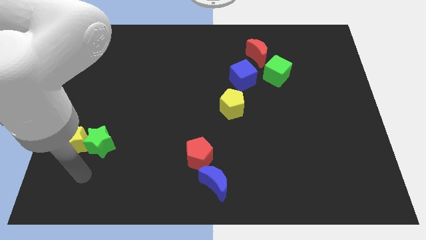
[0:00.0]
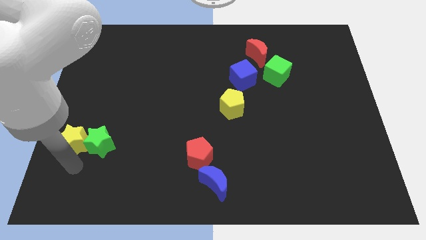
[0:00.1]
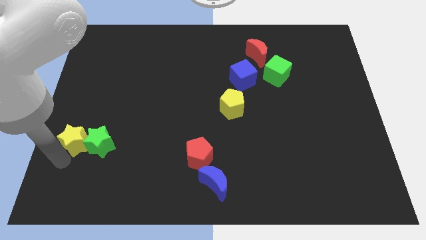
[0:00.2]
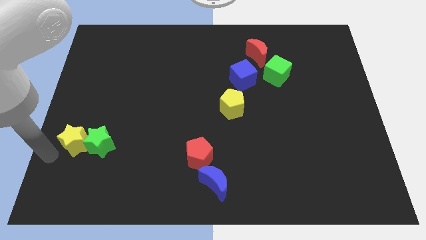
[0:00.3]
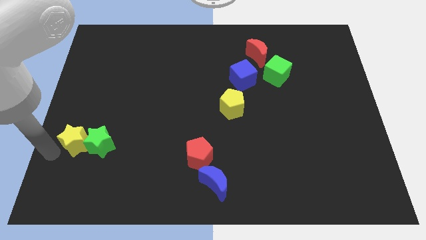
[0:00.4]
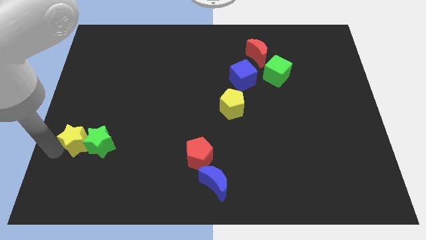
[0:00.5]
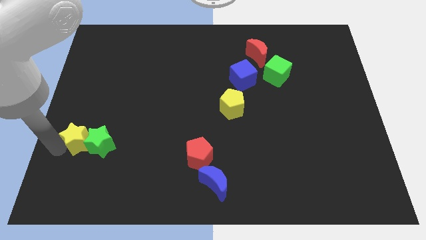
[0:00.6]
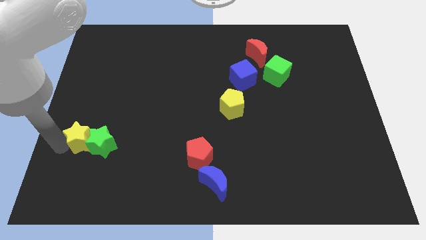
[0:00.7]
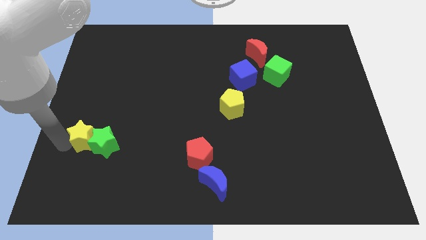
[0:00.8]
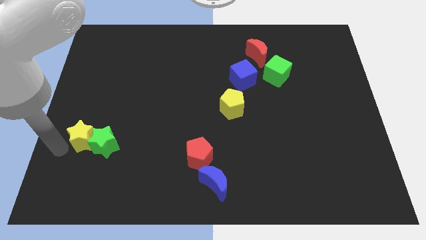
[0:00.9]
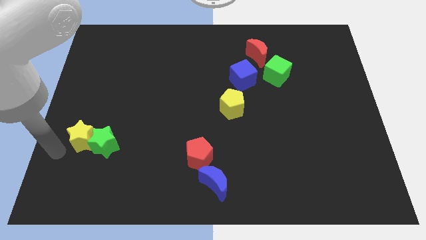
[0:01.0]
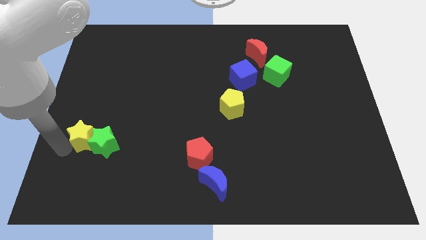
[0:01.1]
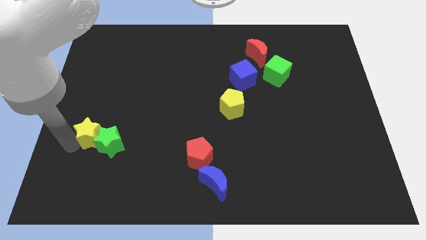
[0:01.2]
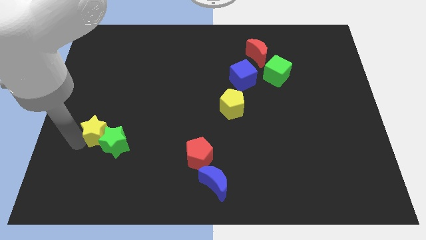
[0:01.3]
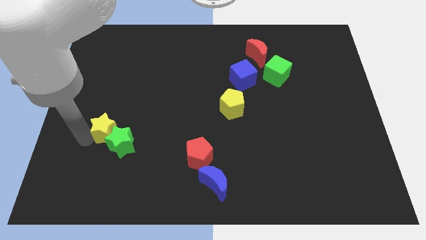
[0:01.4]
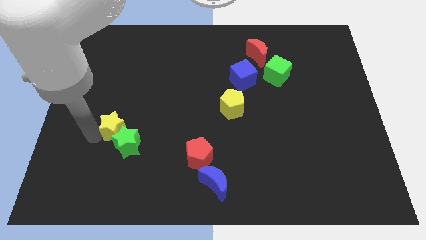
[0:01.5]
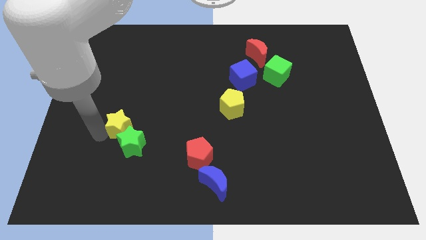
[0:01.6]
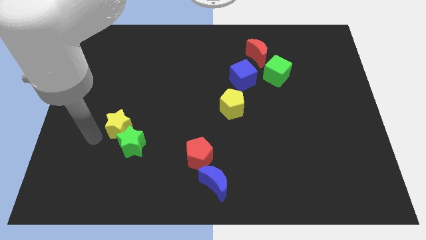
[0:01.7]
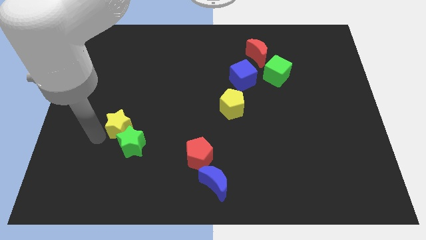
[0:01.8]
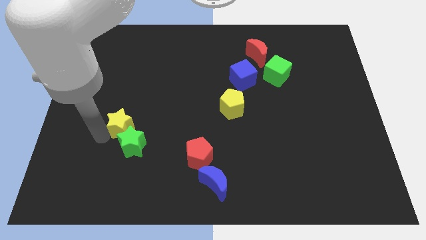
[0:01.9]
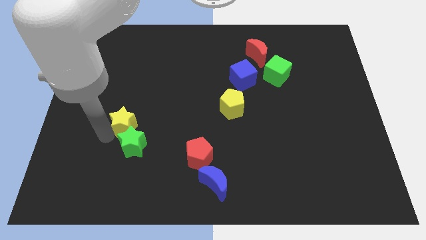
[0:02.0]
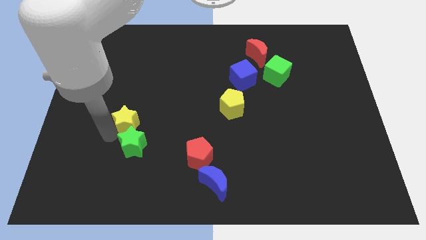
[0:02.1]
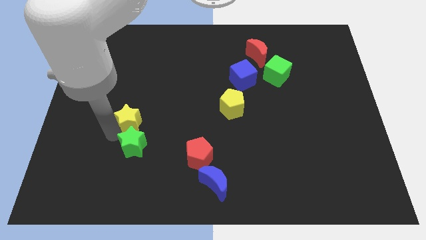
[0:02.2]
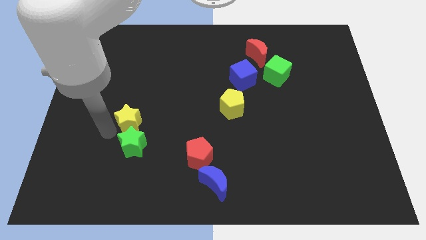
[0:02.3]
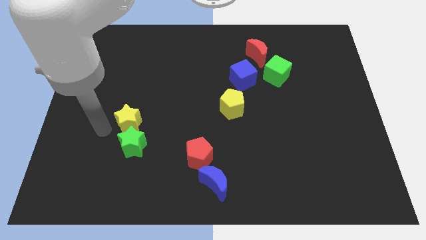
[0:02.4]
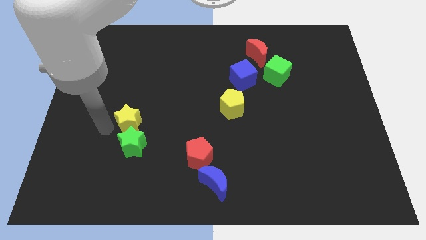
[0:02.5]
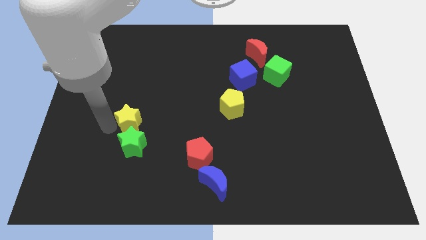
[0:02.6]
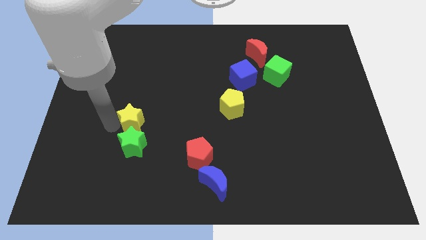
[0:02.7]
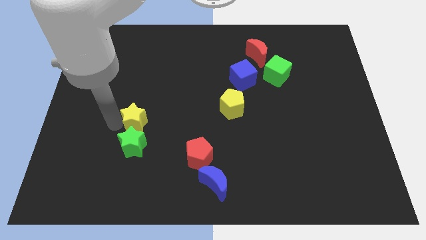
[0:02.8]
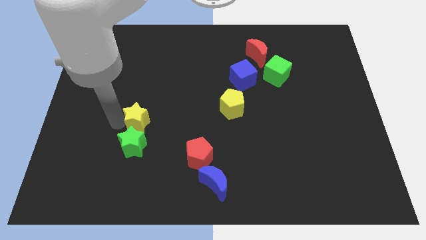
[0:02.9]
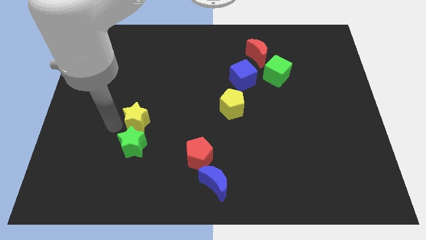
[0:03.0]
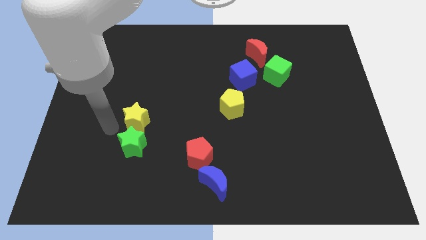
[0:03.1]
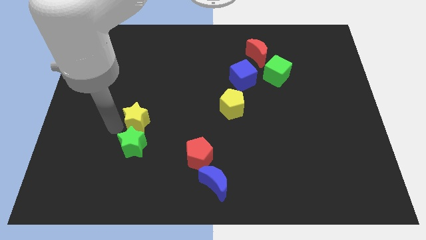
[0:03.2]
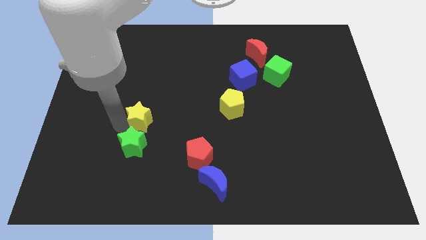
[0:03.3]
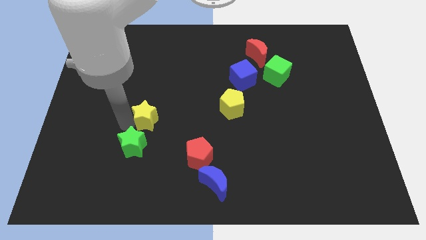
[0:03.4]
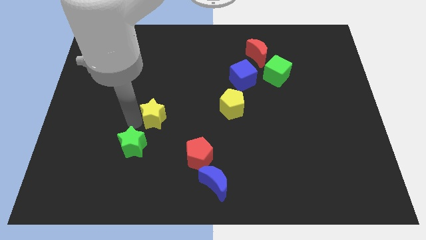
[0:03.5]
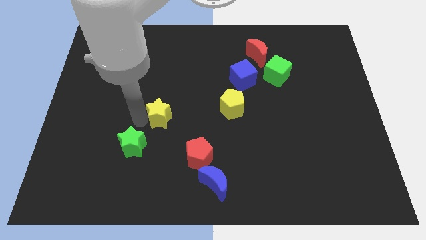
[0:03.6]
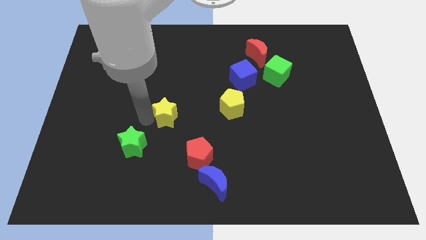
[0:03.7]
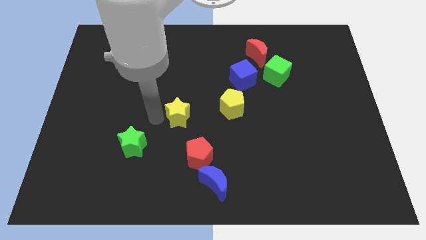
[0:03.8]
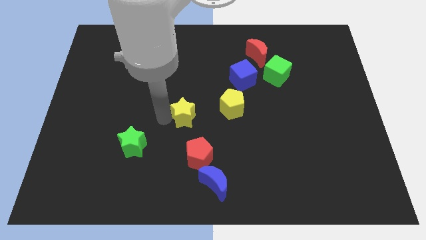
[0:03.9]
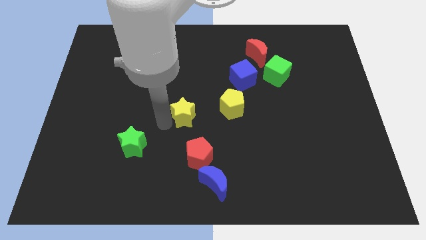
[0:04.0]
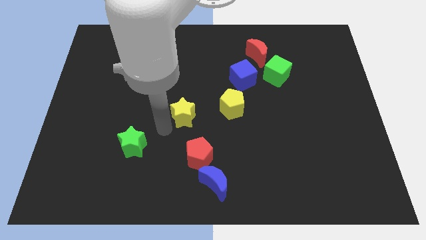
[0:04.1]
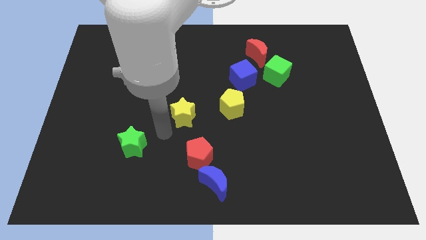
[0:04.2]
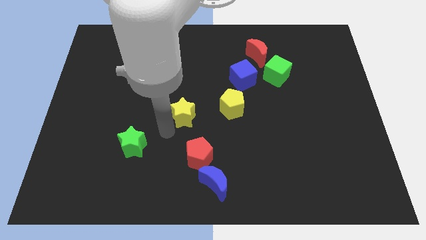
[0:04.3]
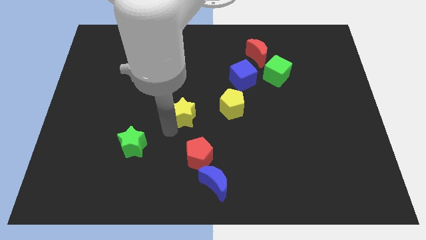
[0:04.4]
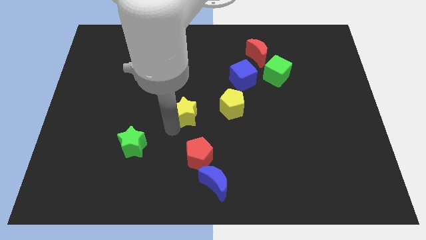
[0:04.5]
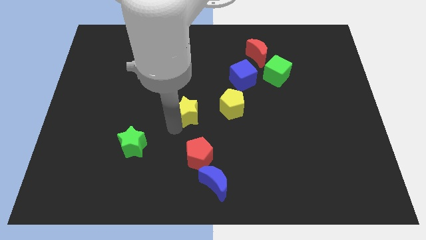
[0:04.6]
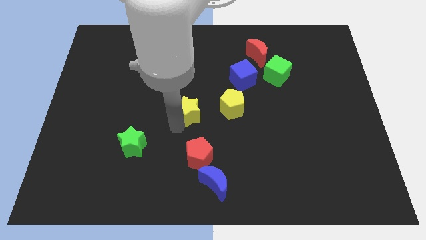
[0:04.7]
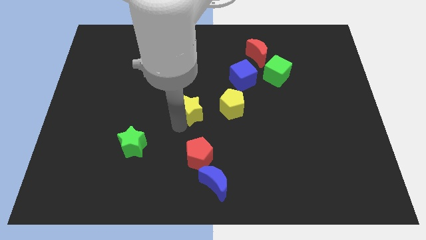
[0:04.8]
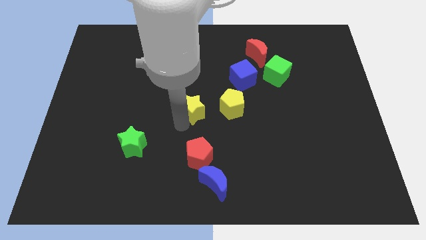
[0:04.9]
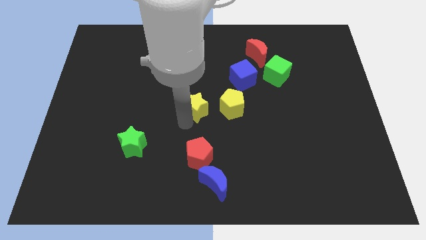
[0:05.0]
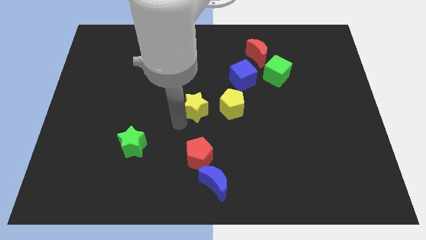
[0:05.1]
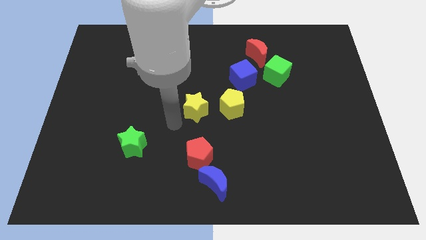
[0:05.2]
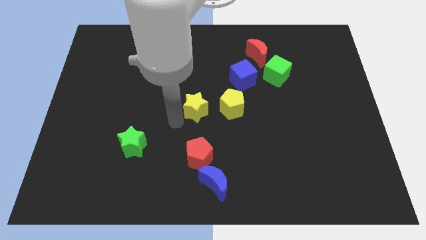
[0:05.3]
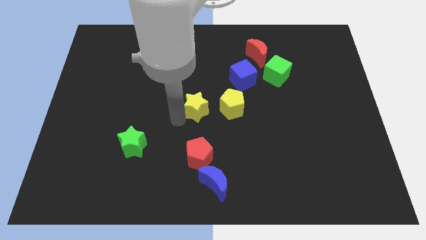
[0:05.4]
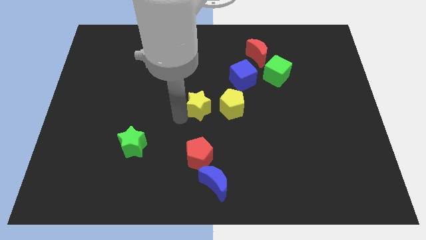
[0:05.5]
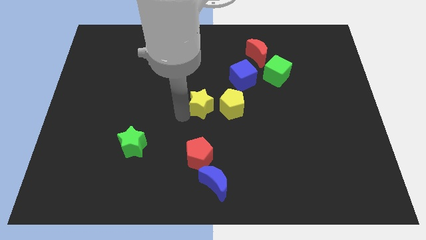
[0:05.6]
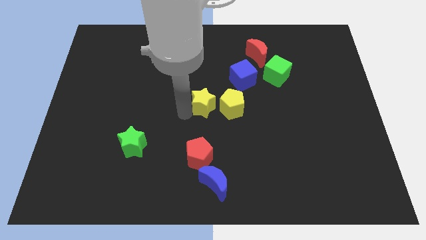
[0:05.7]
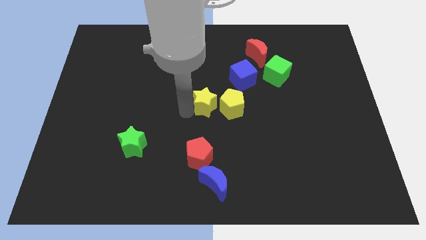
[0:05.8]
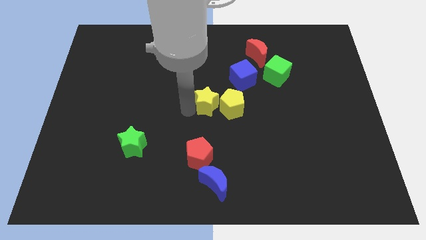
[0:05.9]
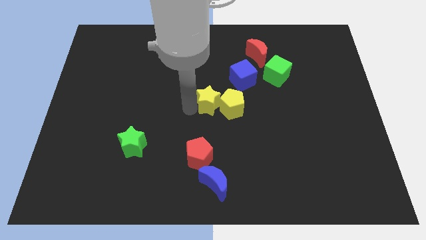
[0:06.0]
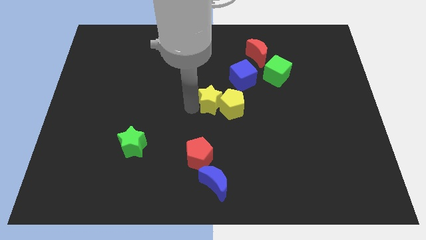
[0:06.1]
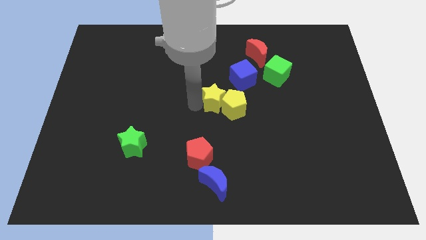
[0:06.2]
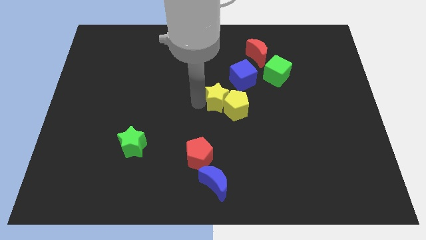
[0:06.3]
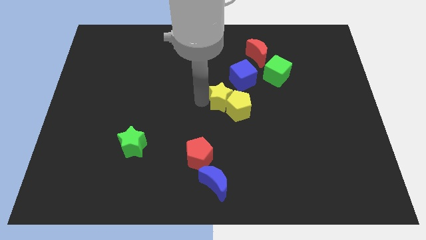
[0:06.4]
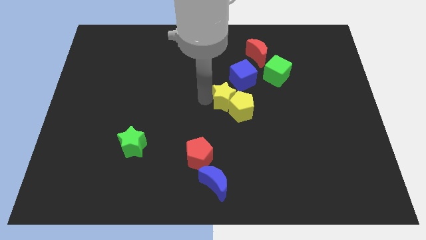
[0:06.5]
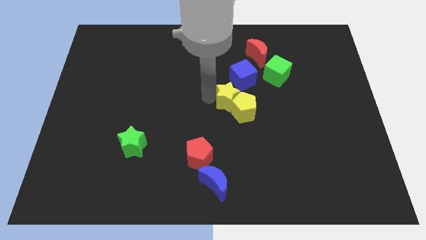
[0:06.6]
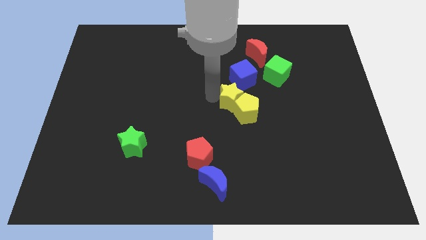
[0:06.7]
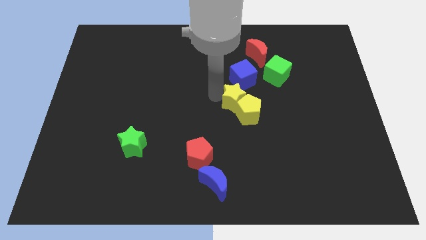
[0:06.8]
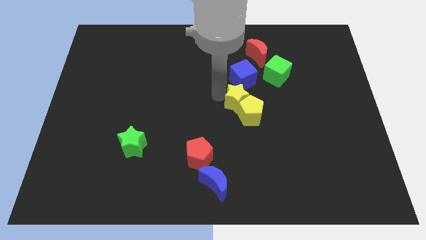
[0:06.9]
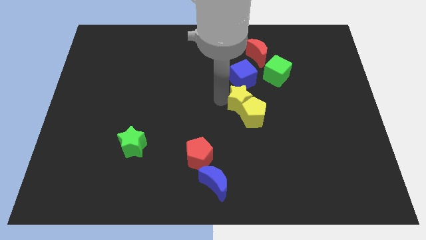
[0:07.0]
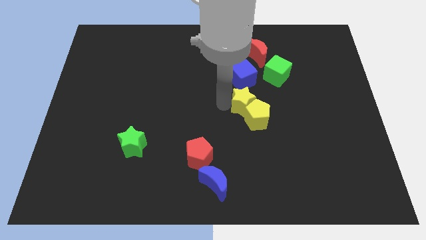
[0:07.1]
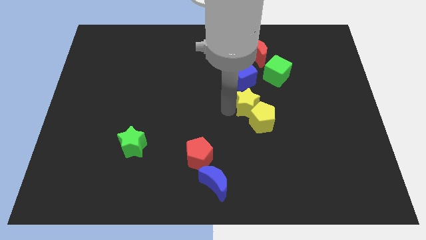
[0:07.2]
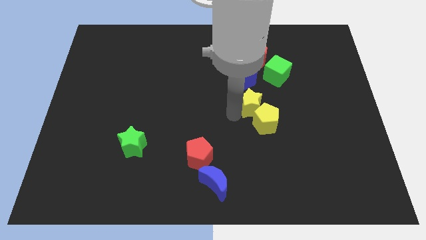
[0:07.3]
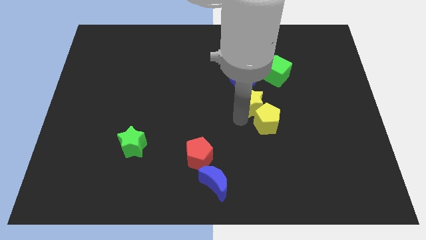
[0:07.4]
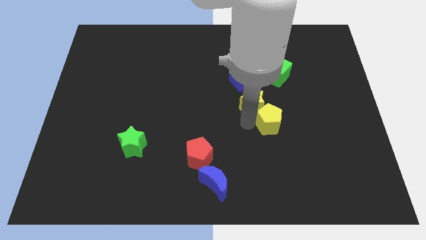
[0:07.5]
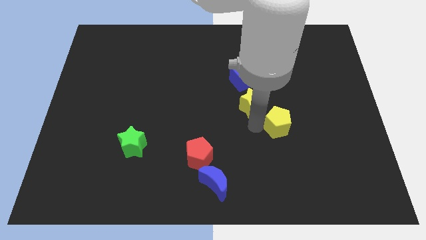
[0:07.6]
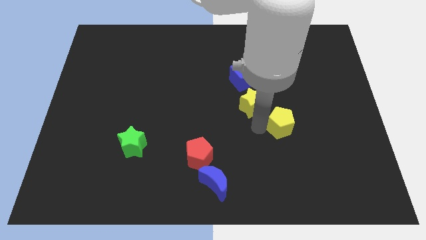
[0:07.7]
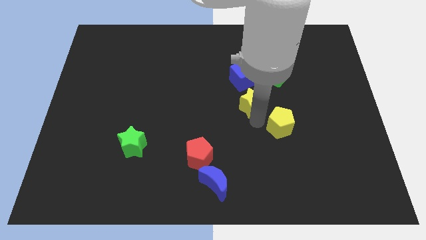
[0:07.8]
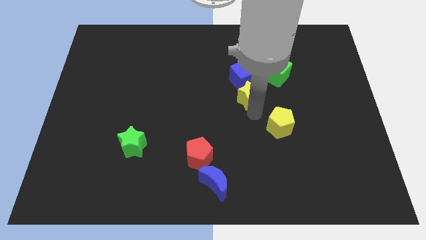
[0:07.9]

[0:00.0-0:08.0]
slide the yellow star next to the blue cube
